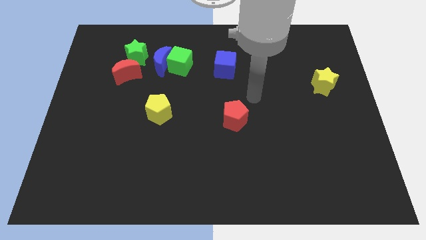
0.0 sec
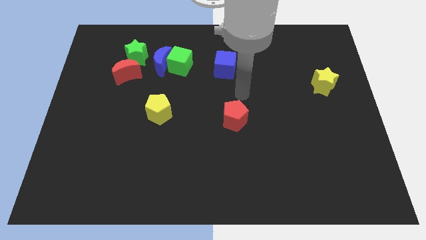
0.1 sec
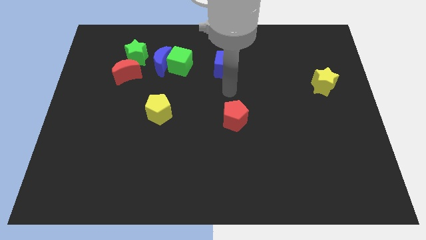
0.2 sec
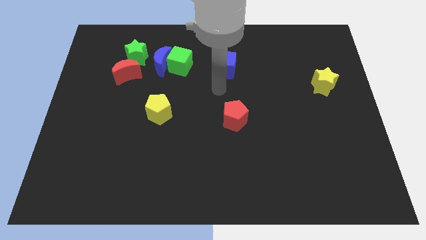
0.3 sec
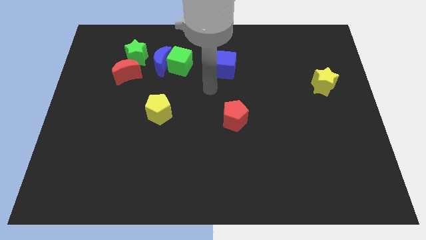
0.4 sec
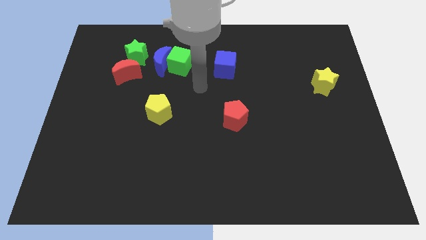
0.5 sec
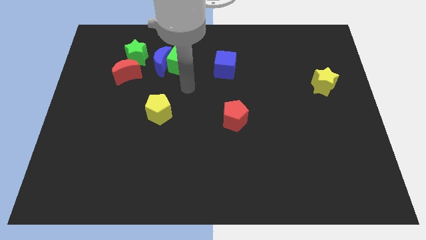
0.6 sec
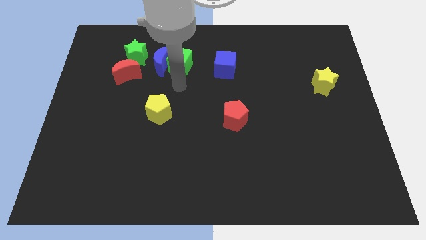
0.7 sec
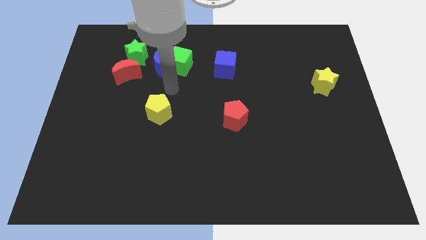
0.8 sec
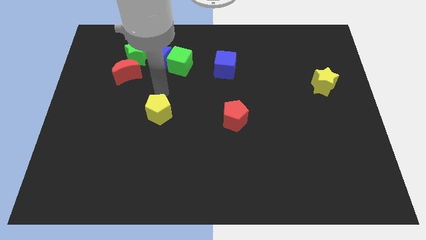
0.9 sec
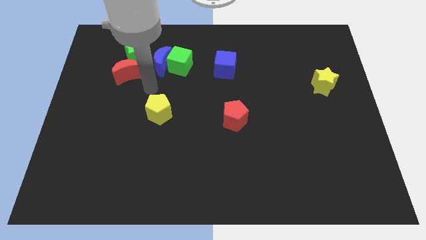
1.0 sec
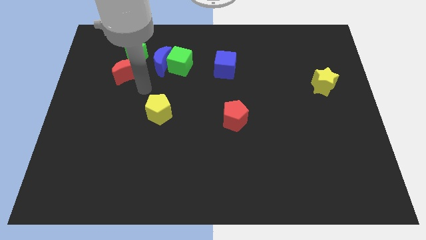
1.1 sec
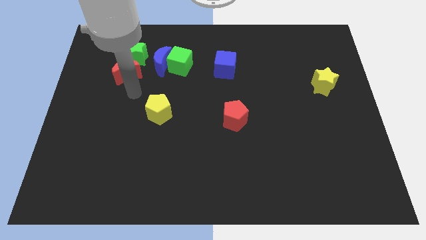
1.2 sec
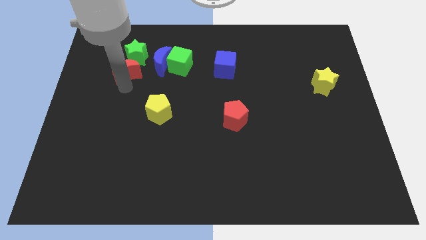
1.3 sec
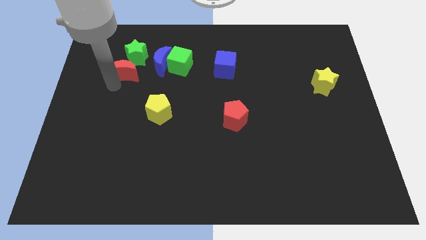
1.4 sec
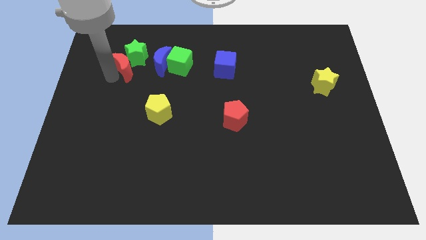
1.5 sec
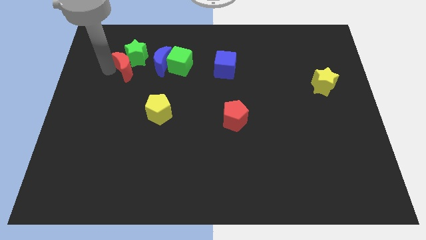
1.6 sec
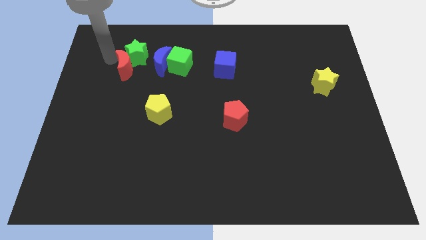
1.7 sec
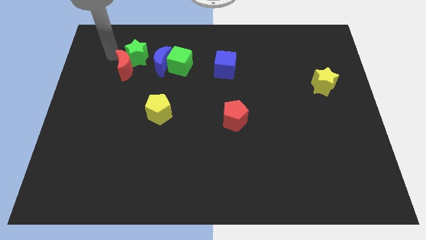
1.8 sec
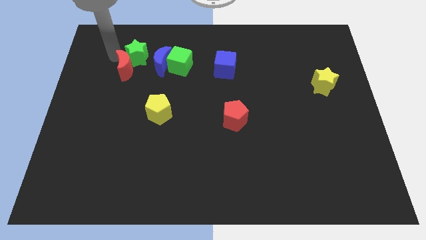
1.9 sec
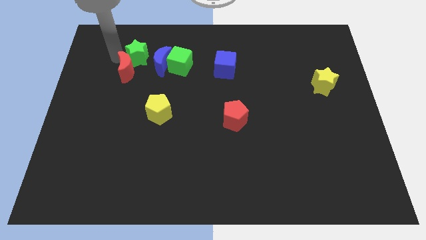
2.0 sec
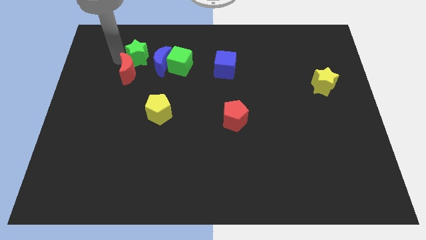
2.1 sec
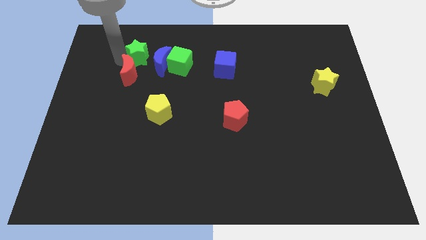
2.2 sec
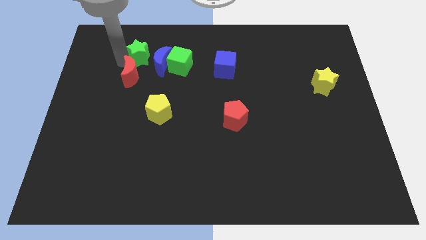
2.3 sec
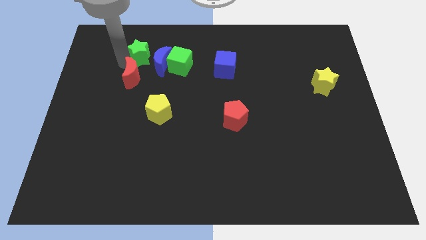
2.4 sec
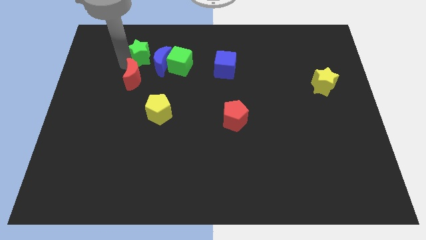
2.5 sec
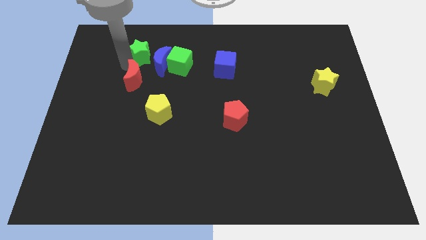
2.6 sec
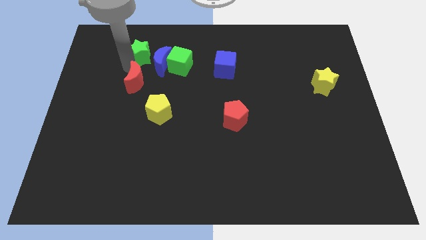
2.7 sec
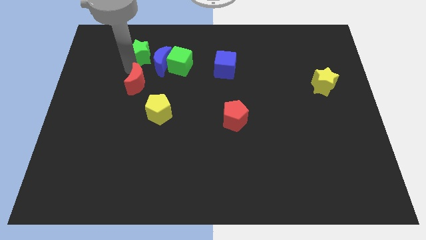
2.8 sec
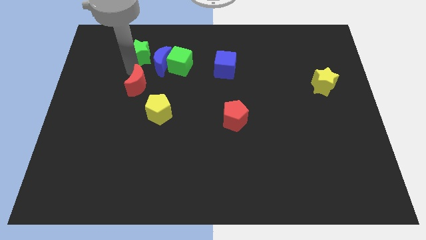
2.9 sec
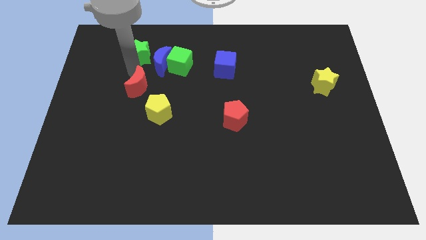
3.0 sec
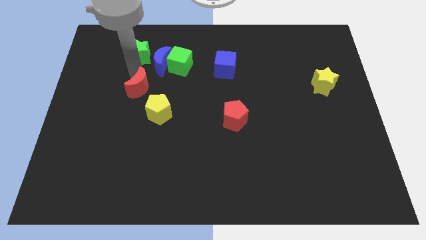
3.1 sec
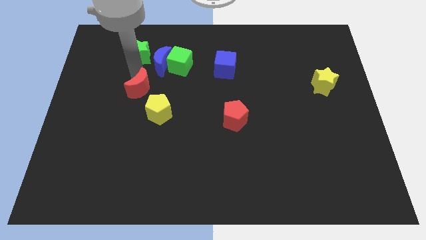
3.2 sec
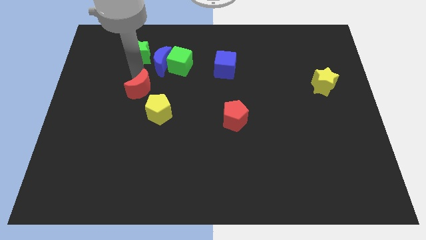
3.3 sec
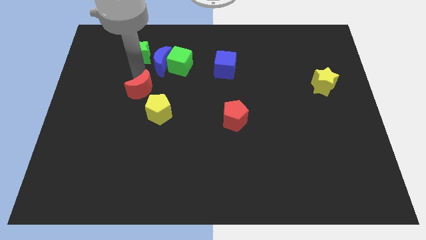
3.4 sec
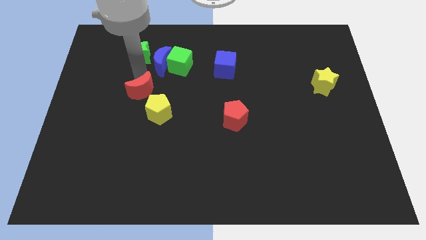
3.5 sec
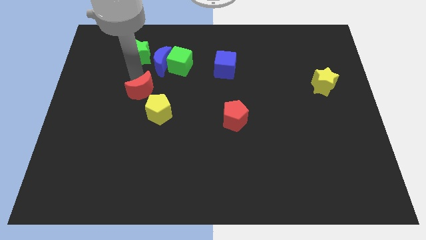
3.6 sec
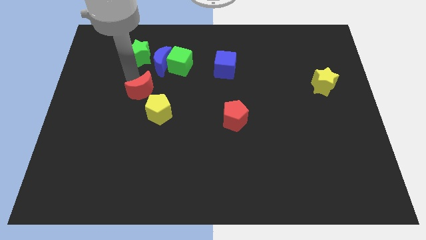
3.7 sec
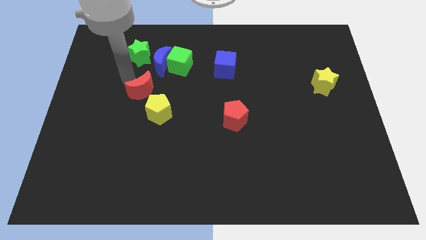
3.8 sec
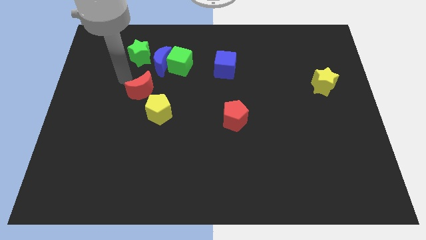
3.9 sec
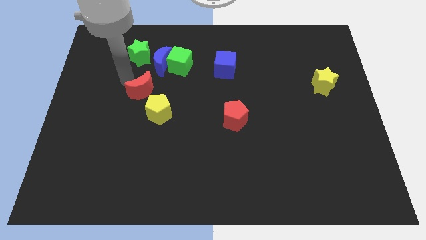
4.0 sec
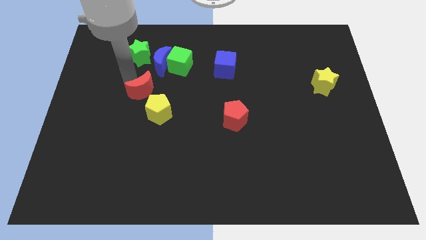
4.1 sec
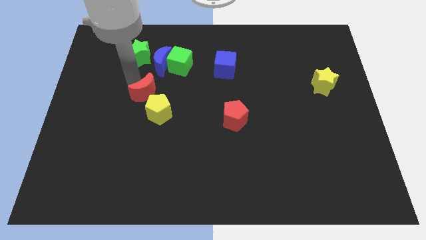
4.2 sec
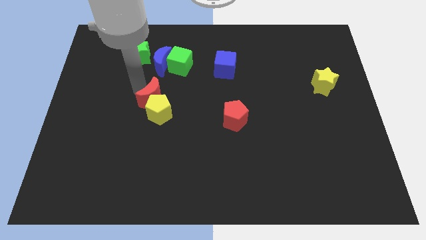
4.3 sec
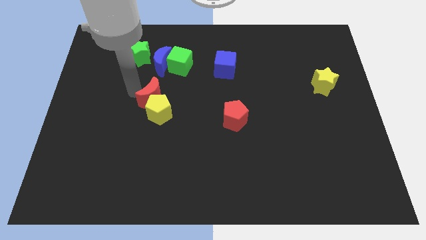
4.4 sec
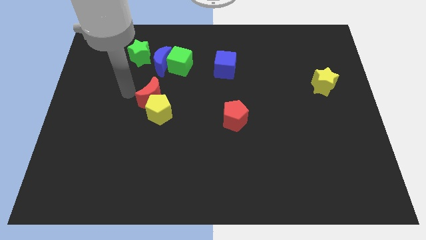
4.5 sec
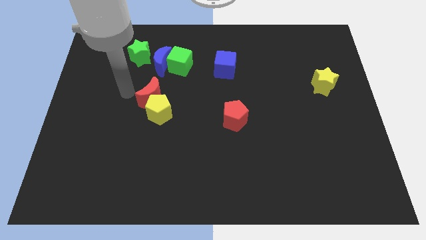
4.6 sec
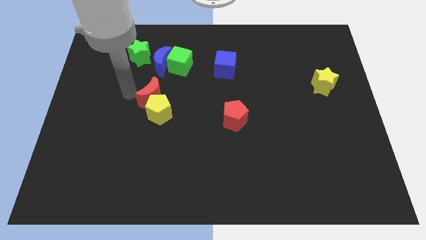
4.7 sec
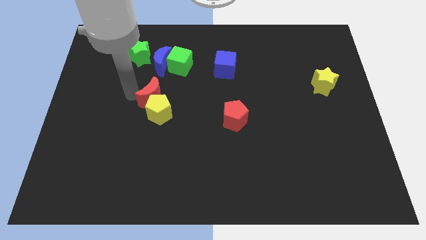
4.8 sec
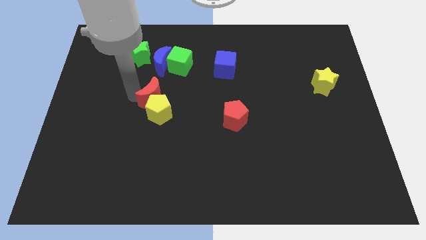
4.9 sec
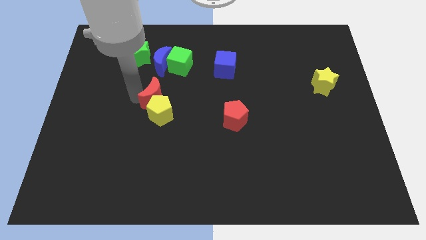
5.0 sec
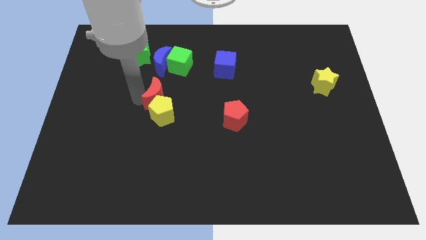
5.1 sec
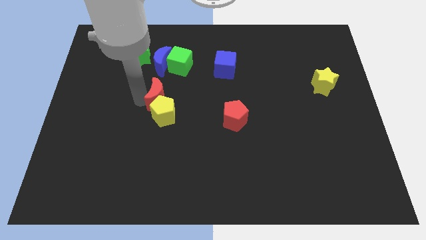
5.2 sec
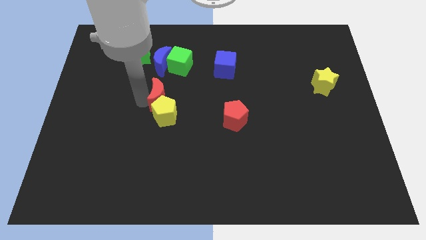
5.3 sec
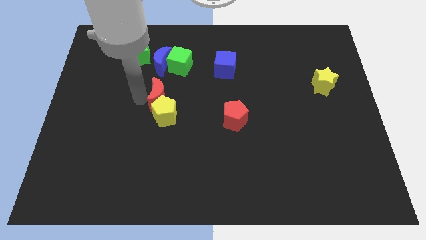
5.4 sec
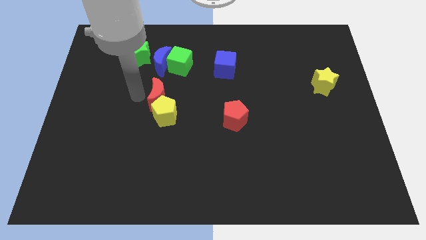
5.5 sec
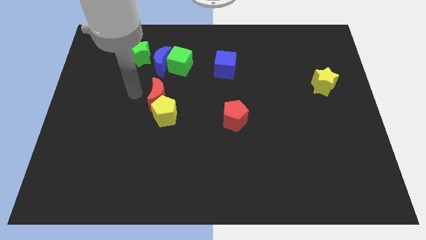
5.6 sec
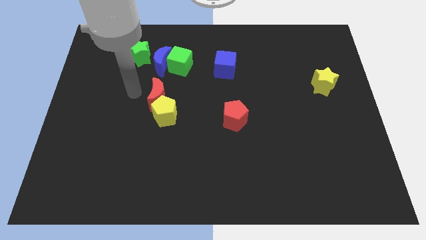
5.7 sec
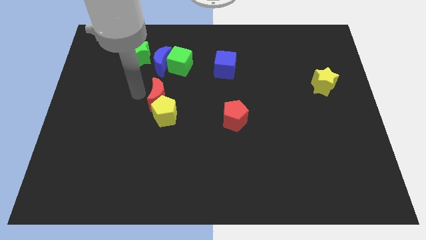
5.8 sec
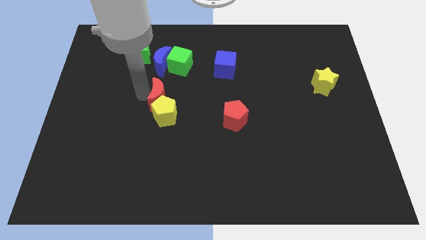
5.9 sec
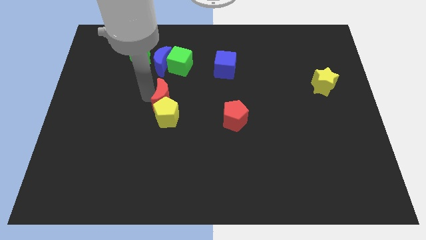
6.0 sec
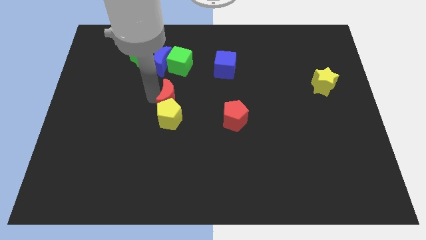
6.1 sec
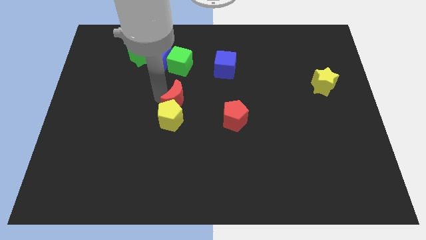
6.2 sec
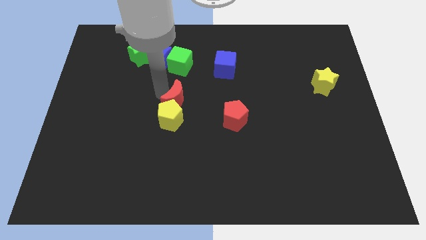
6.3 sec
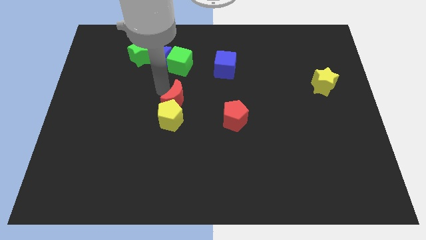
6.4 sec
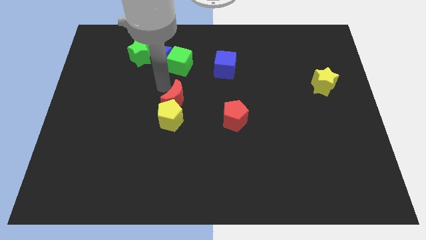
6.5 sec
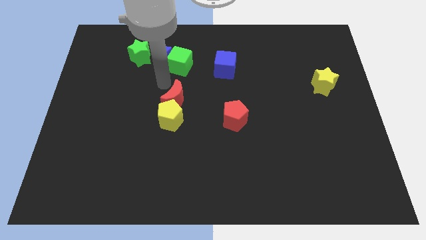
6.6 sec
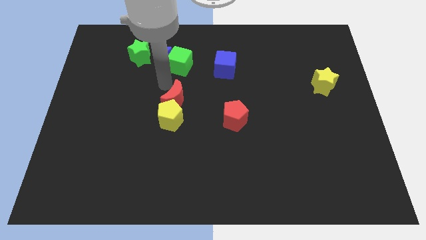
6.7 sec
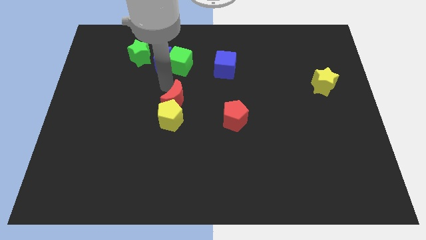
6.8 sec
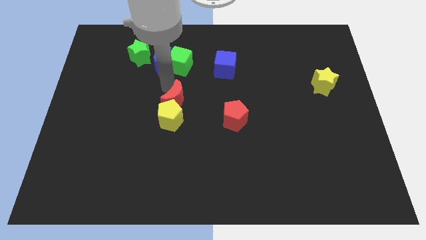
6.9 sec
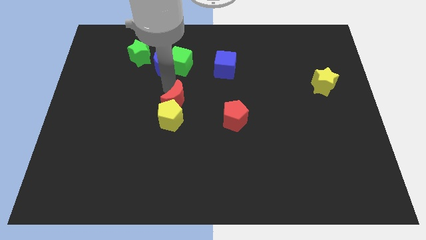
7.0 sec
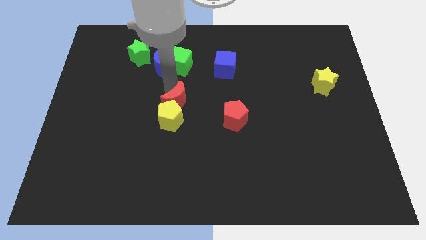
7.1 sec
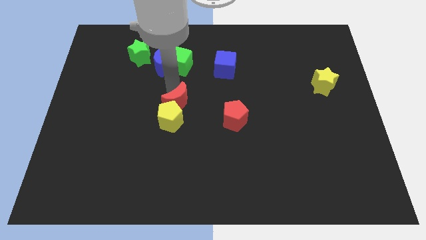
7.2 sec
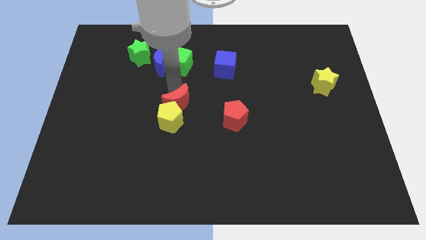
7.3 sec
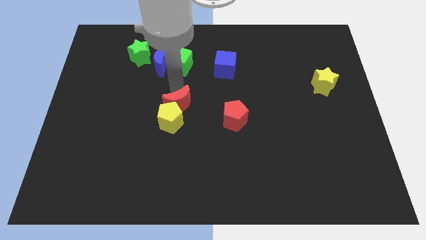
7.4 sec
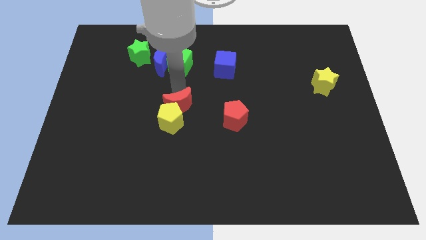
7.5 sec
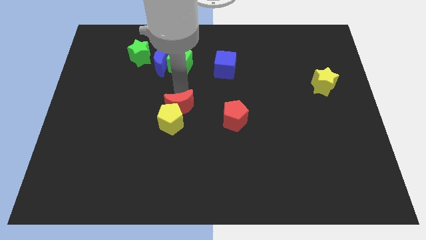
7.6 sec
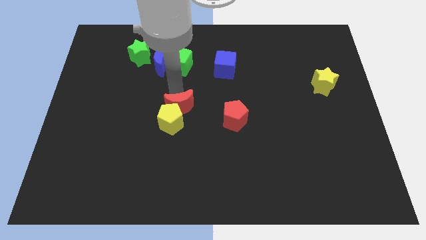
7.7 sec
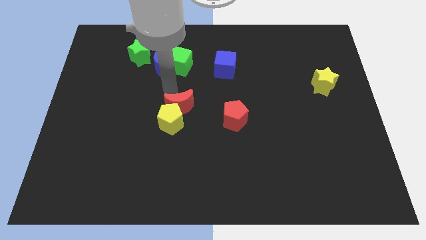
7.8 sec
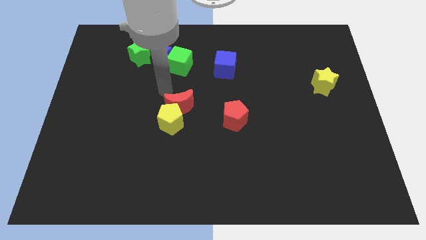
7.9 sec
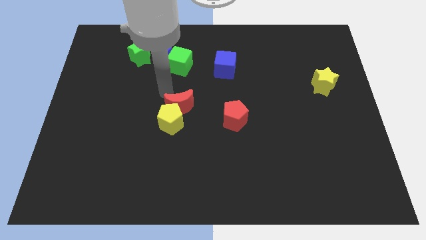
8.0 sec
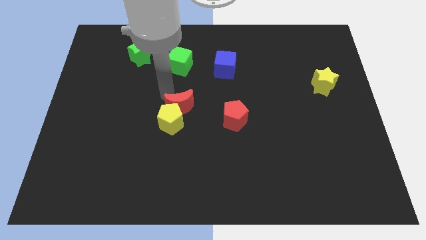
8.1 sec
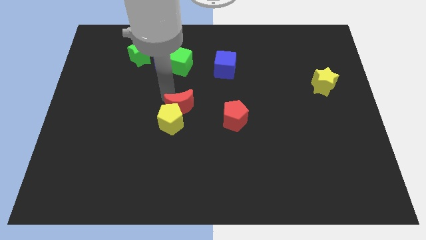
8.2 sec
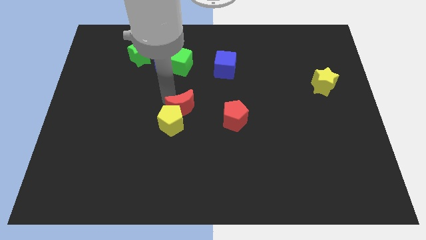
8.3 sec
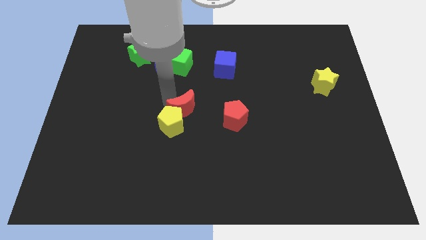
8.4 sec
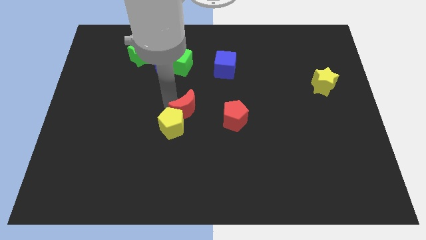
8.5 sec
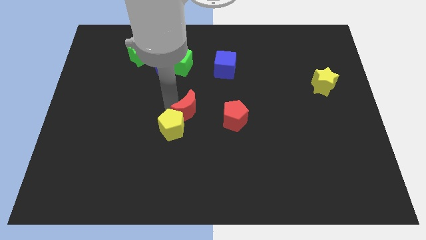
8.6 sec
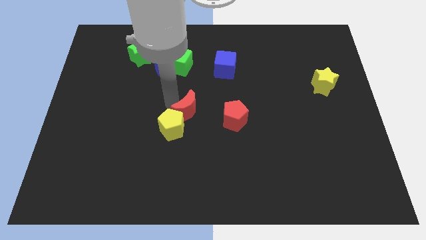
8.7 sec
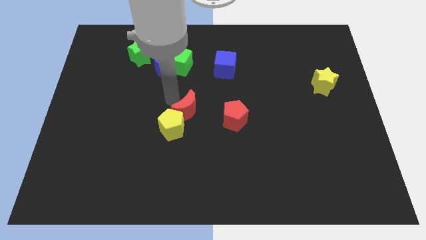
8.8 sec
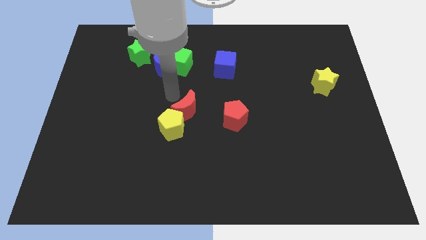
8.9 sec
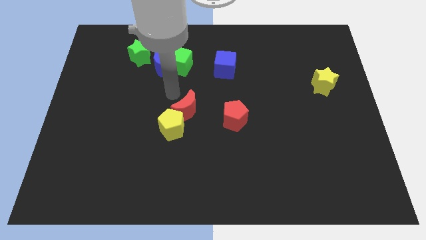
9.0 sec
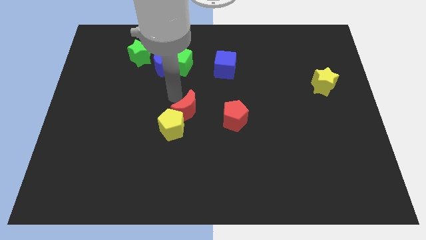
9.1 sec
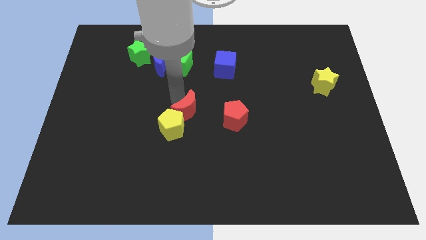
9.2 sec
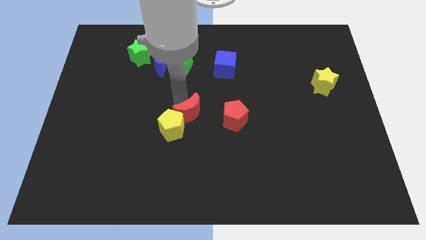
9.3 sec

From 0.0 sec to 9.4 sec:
move the red moon diagonally downwards and to the right
